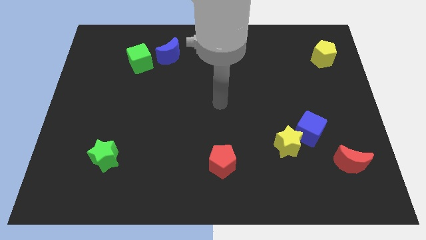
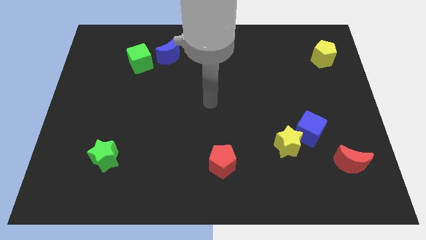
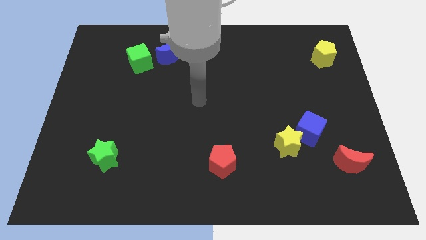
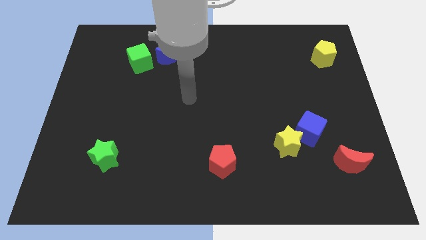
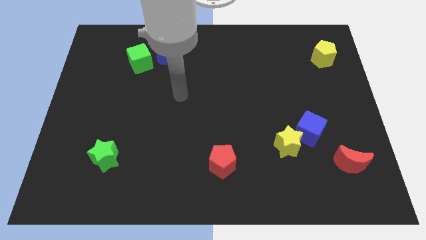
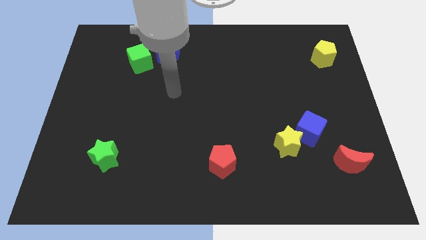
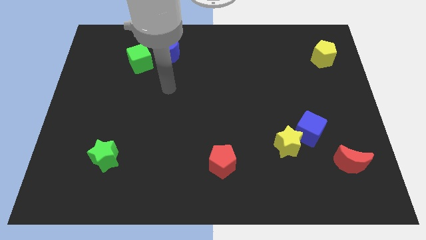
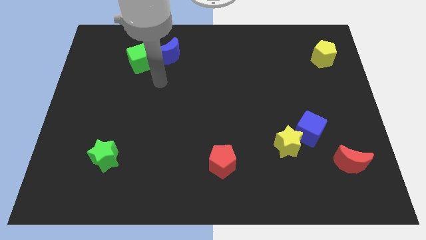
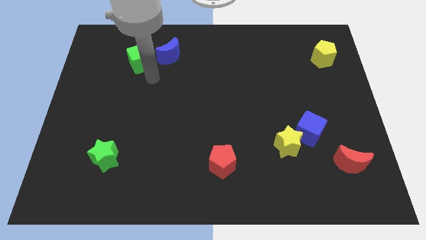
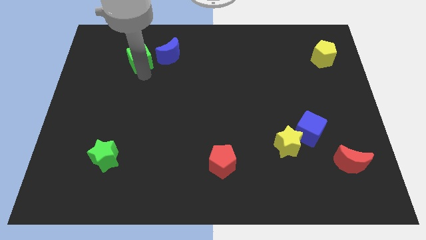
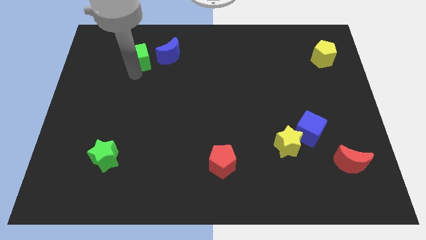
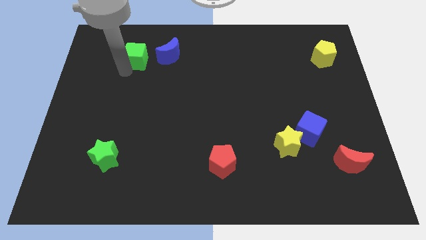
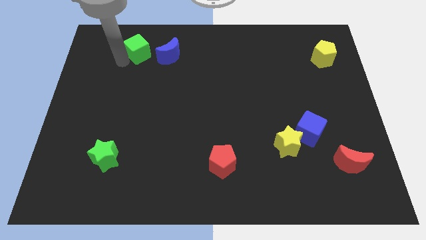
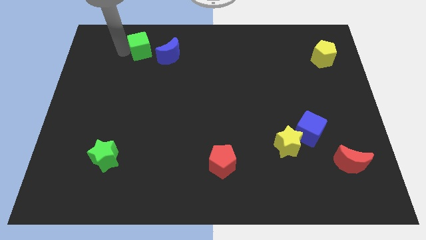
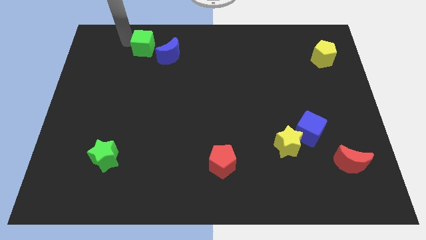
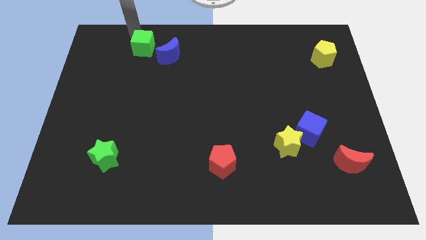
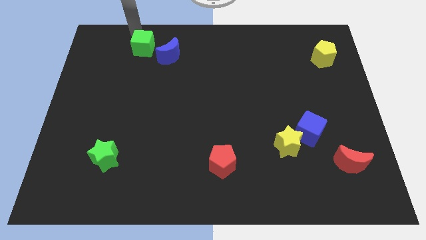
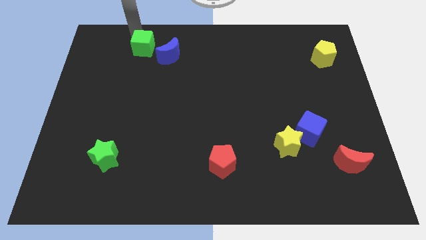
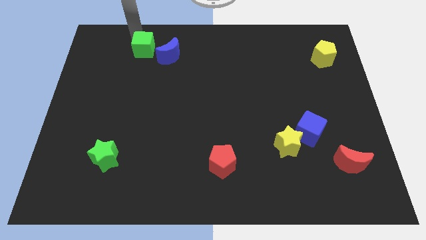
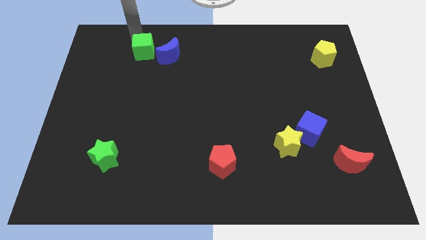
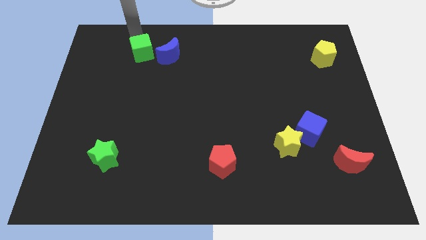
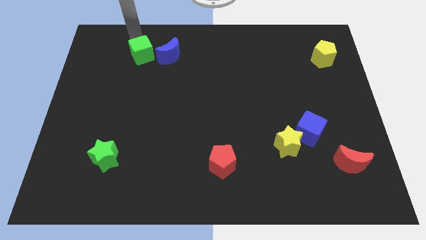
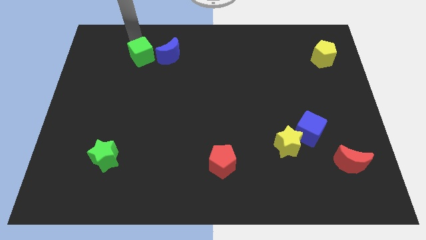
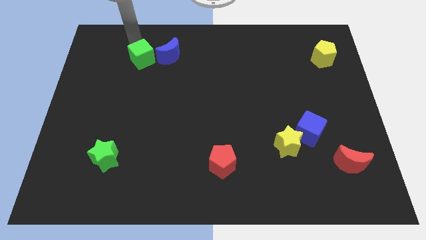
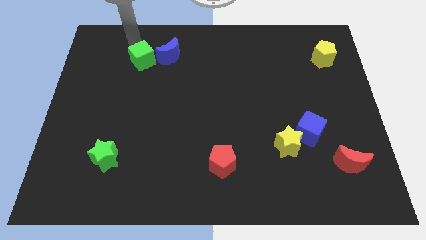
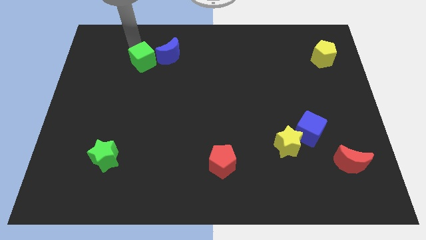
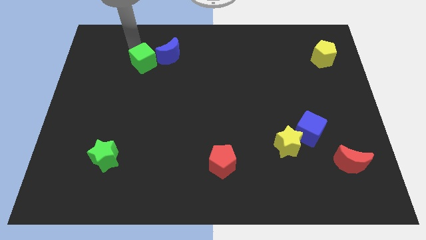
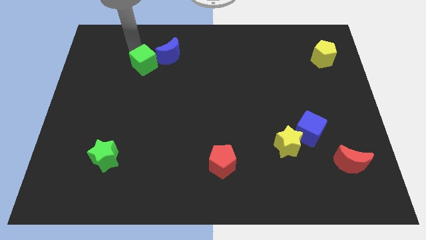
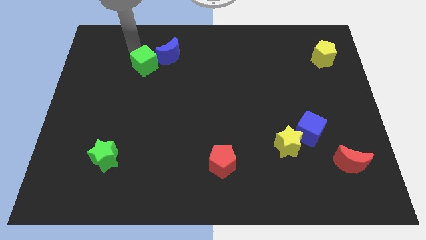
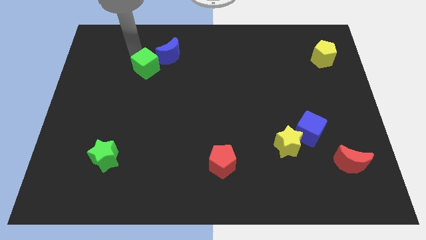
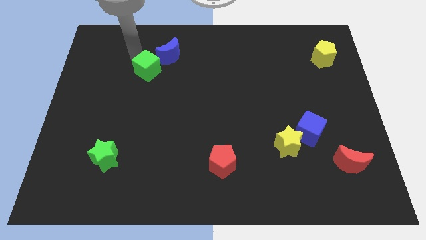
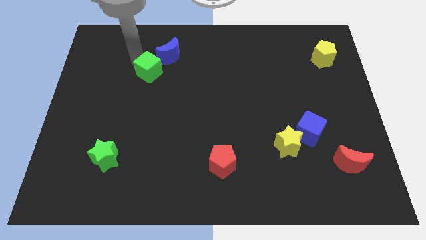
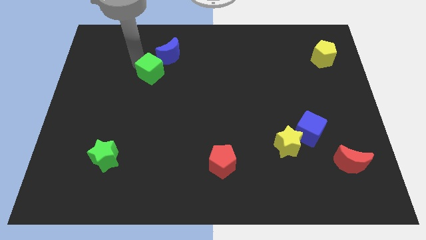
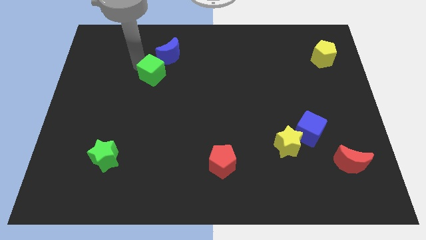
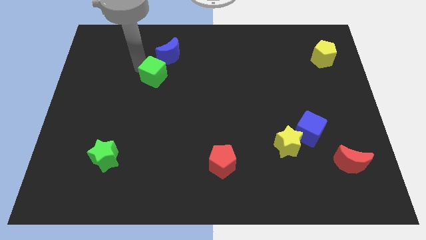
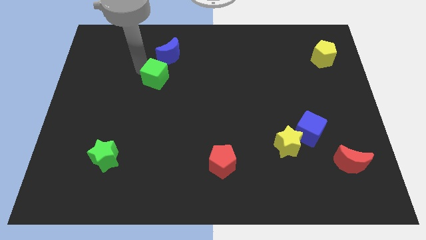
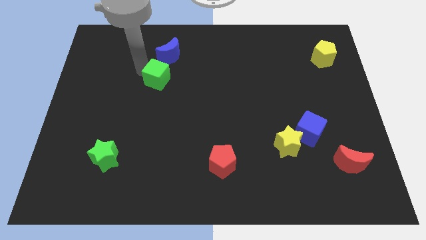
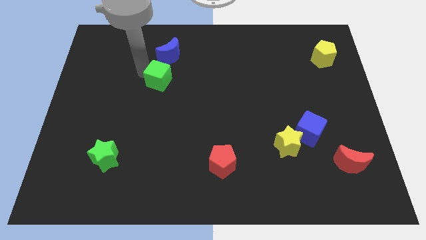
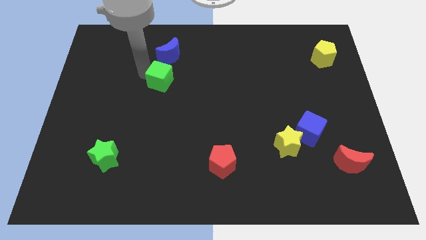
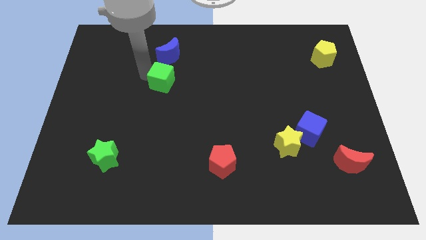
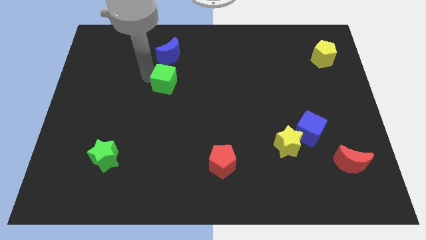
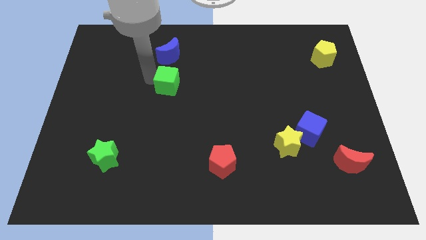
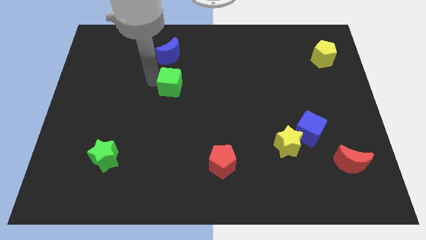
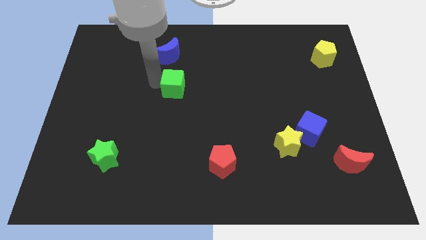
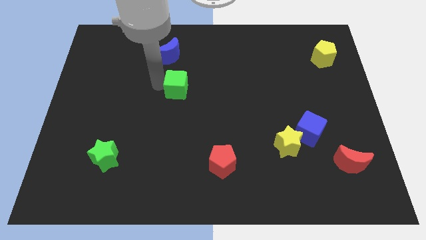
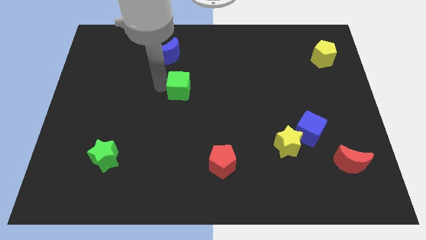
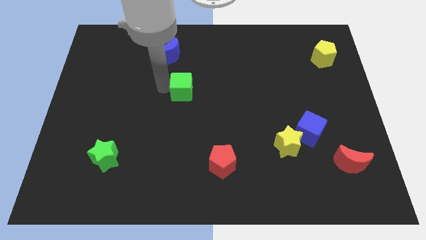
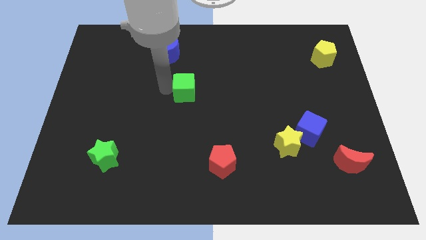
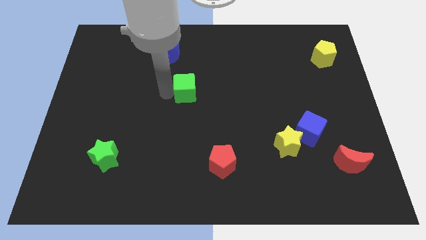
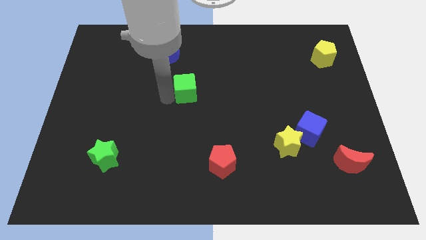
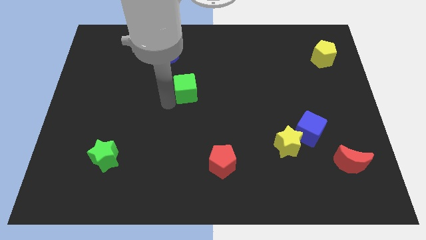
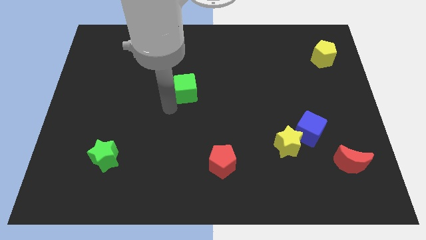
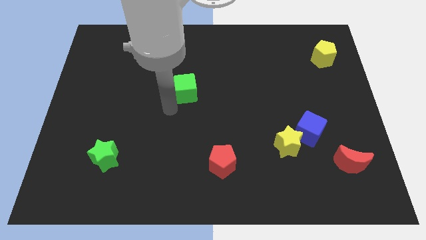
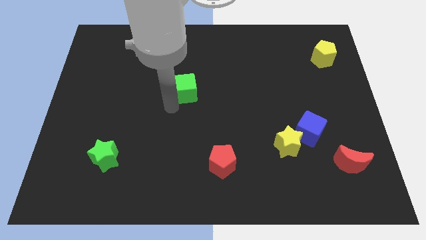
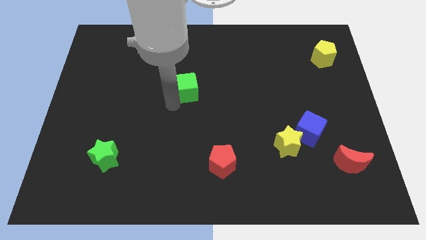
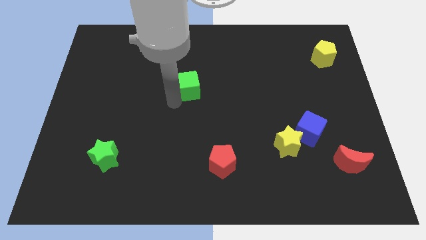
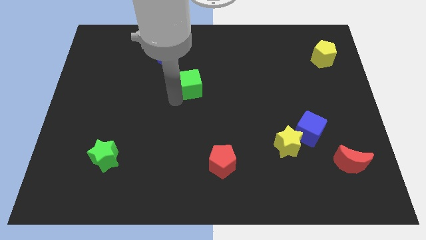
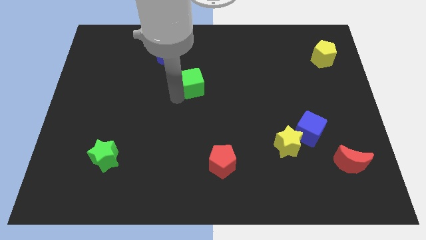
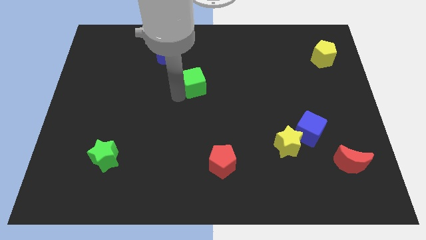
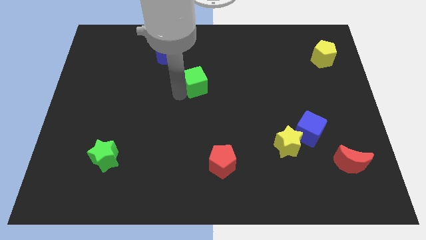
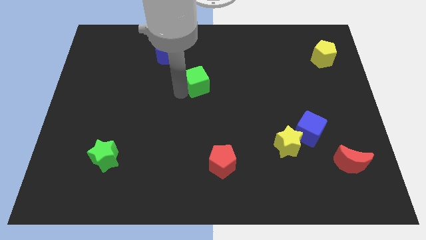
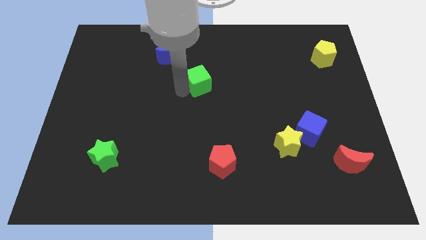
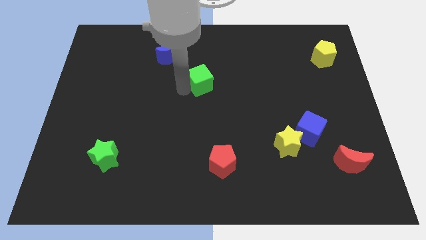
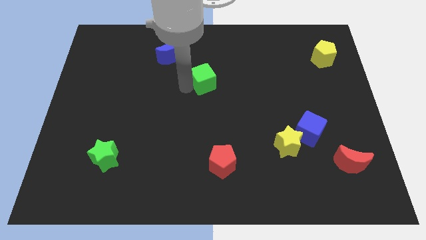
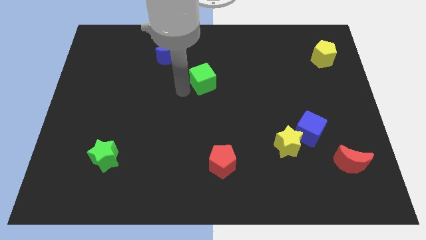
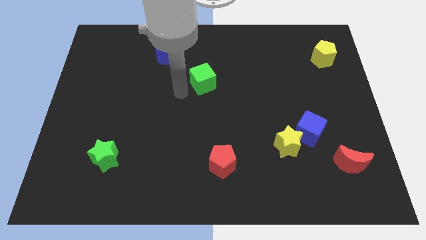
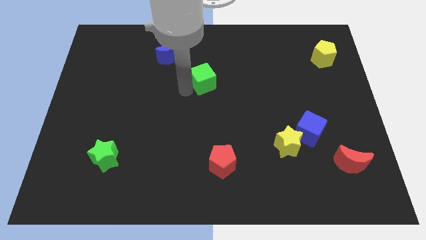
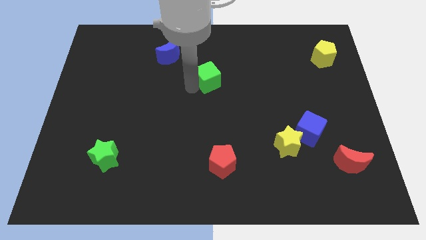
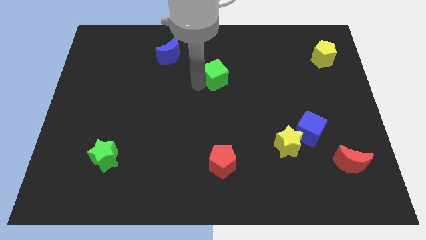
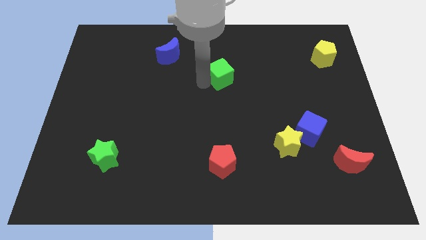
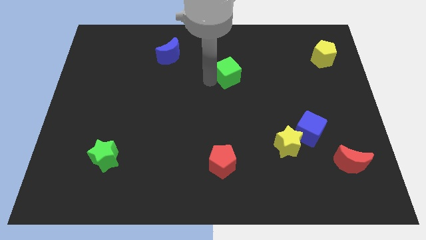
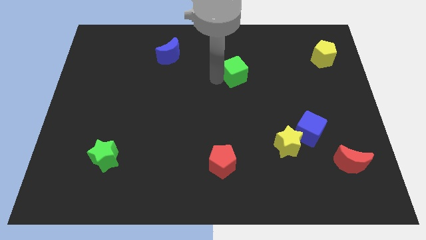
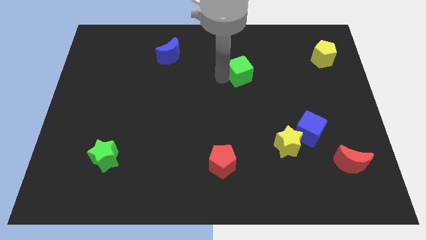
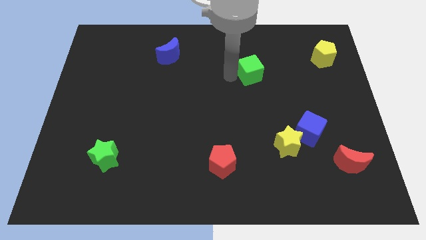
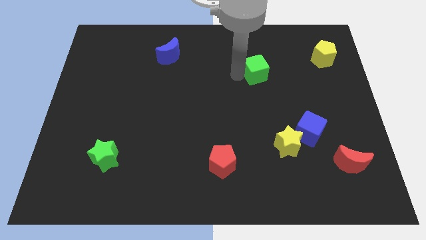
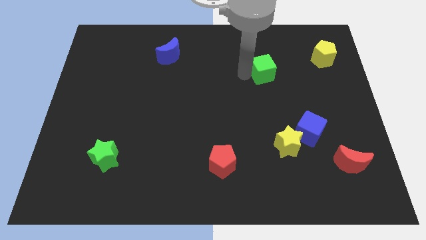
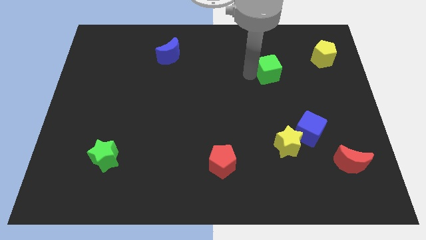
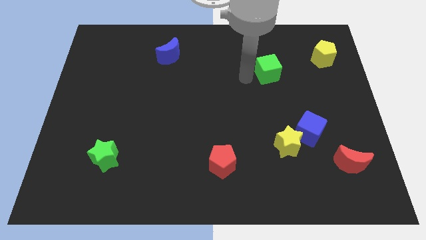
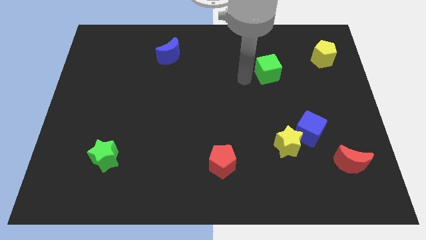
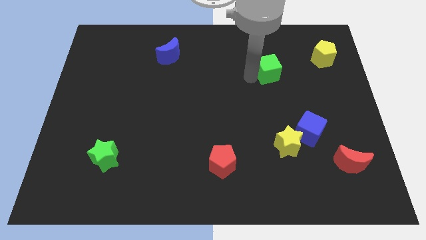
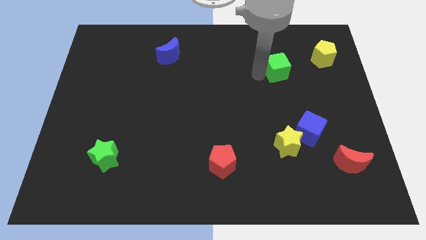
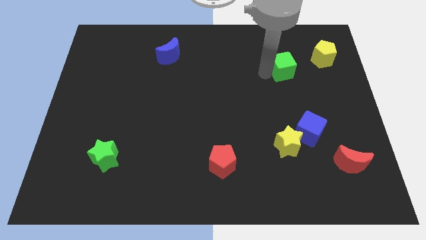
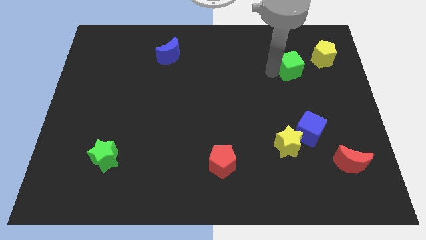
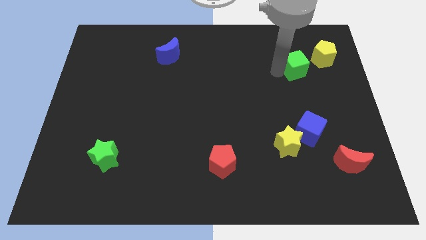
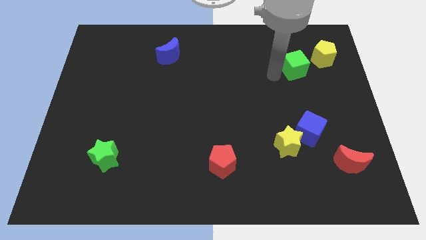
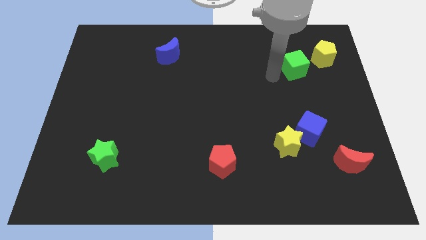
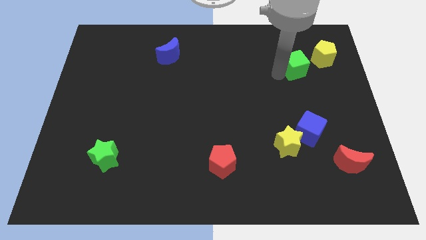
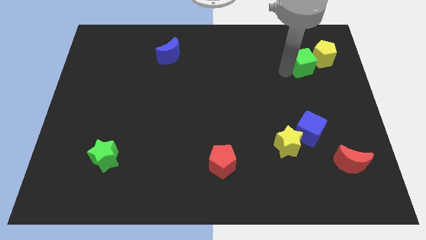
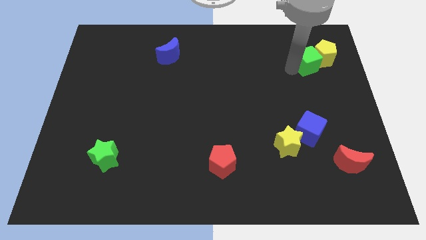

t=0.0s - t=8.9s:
move the green cube close to the yellow pentagon
